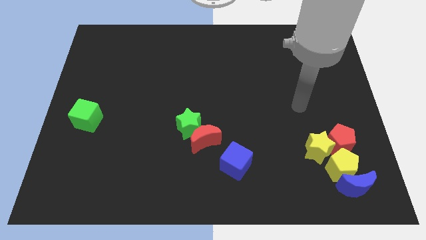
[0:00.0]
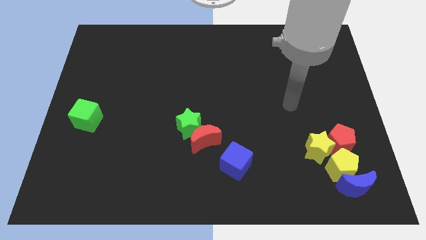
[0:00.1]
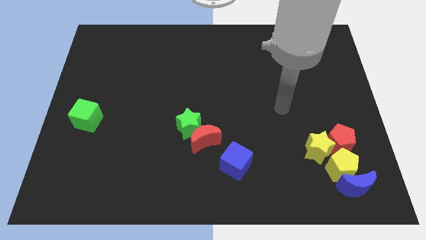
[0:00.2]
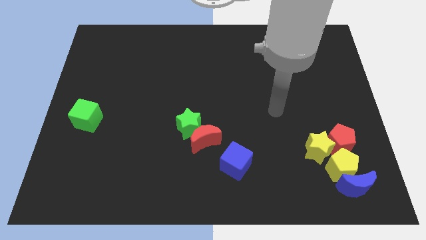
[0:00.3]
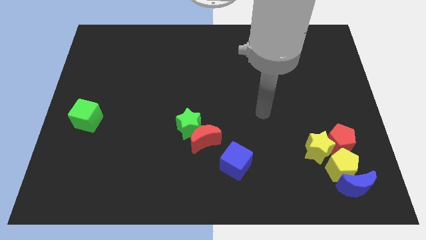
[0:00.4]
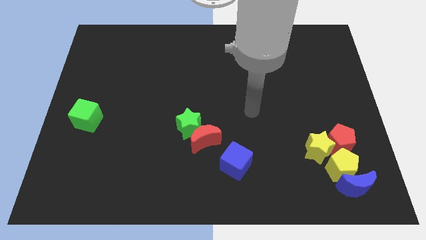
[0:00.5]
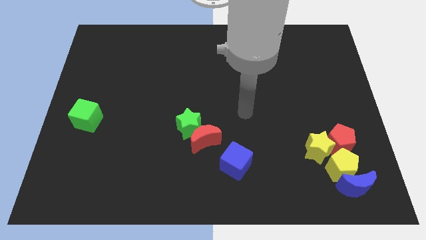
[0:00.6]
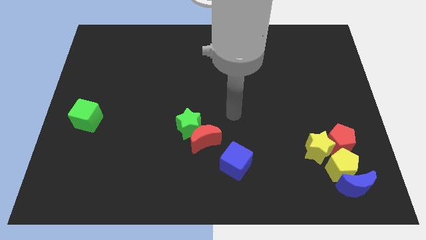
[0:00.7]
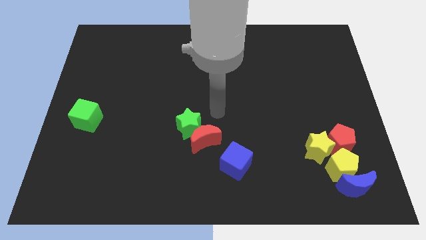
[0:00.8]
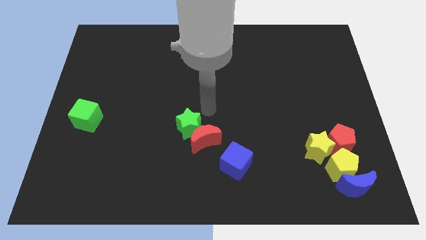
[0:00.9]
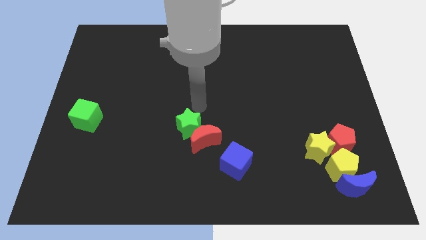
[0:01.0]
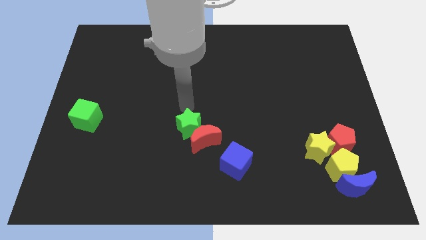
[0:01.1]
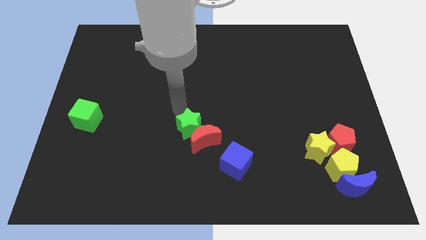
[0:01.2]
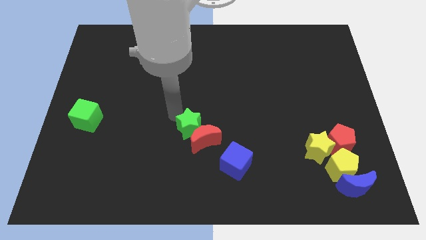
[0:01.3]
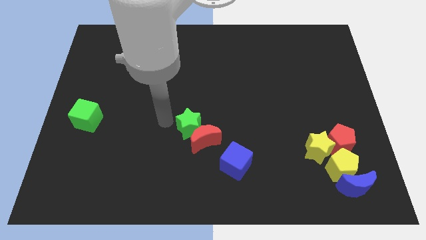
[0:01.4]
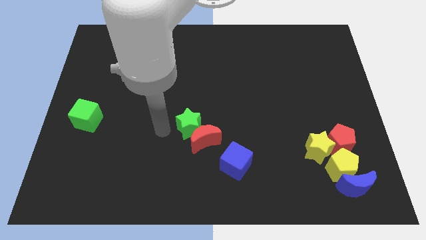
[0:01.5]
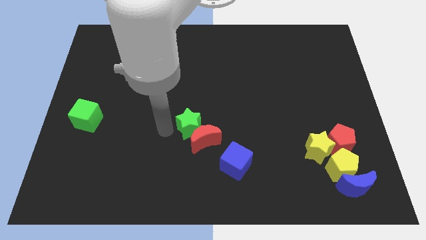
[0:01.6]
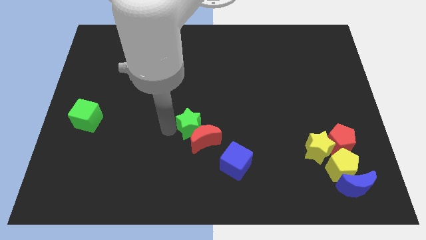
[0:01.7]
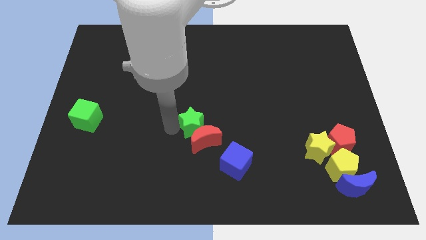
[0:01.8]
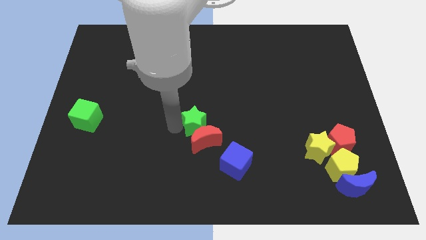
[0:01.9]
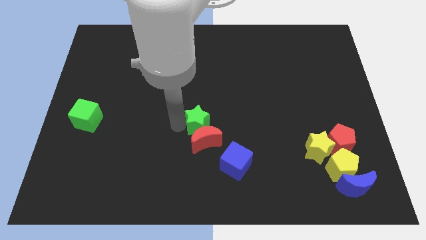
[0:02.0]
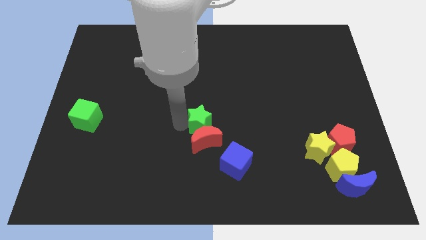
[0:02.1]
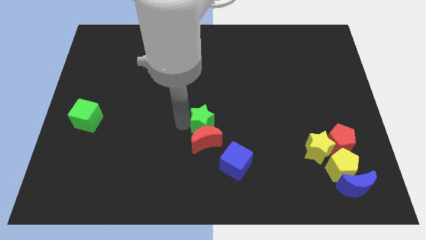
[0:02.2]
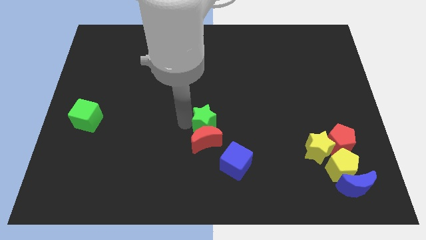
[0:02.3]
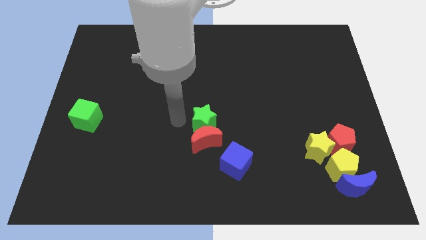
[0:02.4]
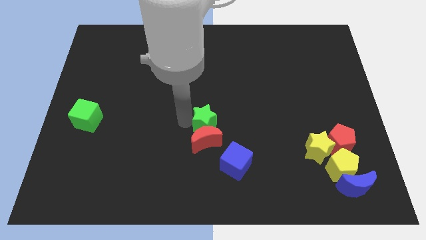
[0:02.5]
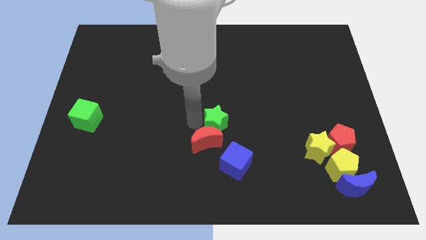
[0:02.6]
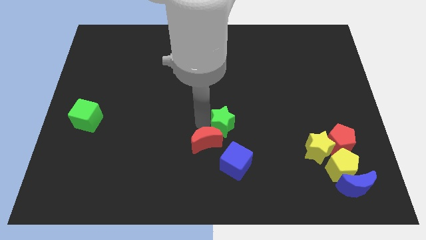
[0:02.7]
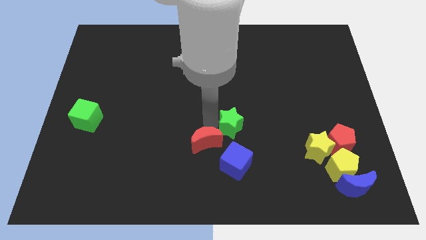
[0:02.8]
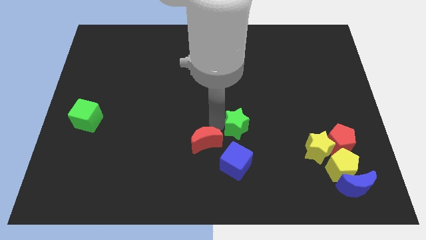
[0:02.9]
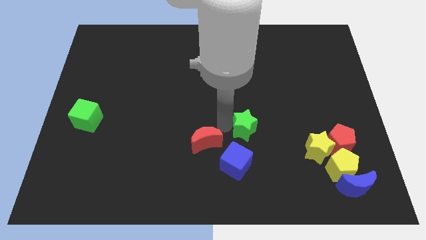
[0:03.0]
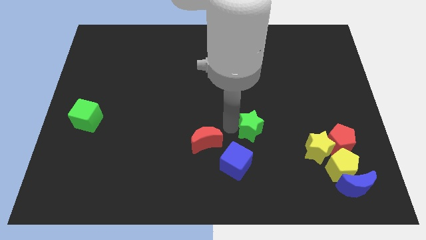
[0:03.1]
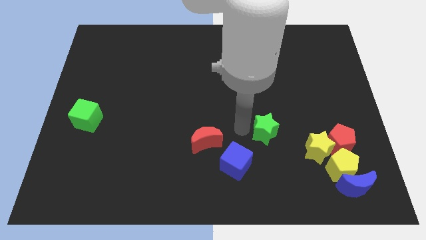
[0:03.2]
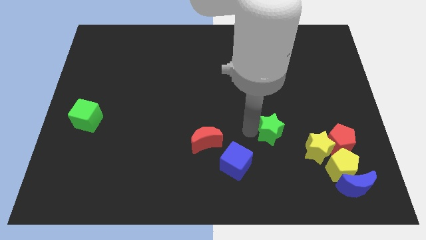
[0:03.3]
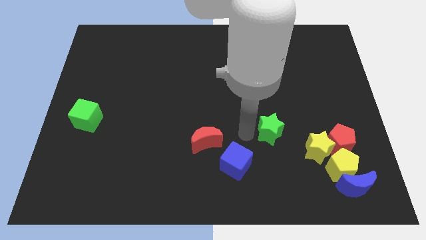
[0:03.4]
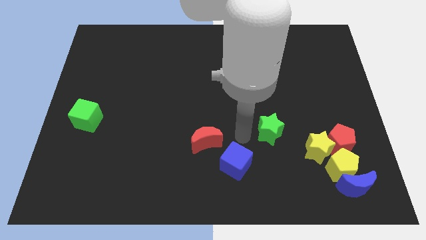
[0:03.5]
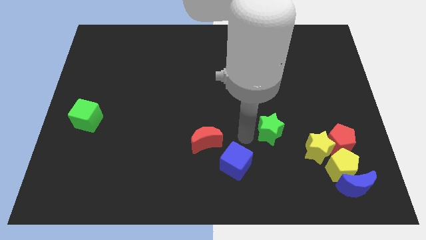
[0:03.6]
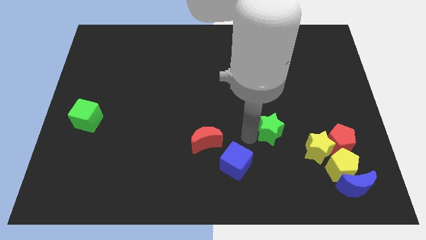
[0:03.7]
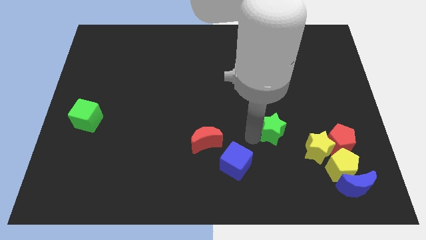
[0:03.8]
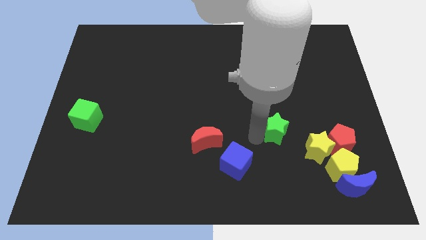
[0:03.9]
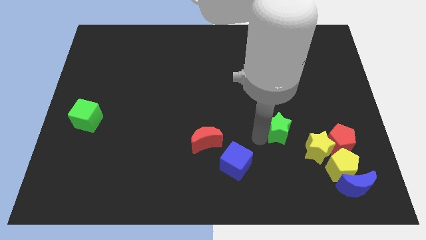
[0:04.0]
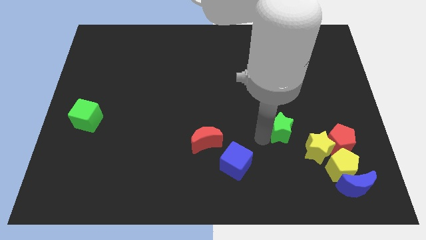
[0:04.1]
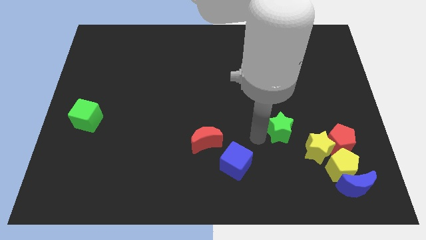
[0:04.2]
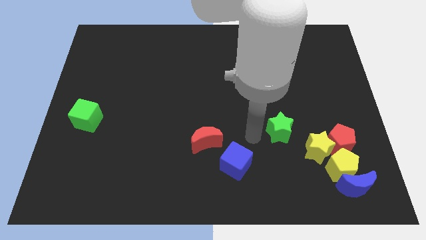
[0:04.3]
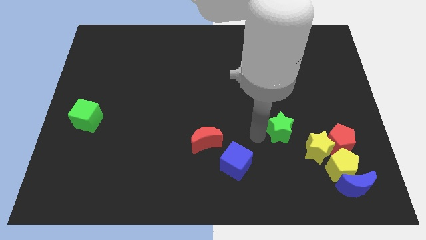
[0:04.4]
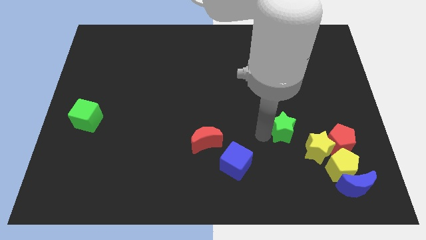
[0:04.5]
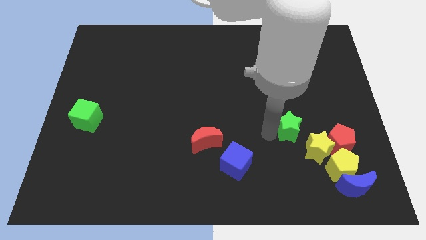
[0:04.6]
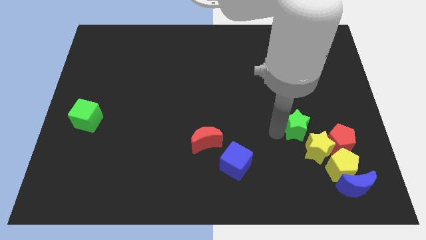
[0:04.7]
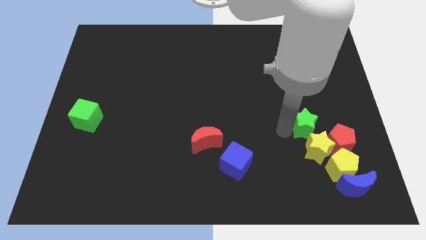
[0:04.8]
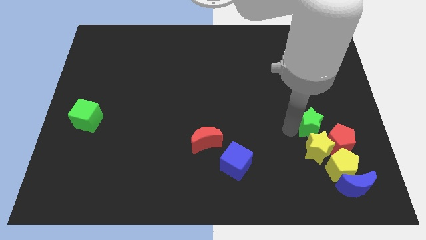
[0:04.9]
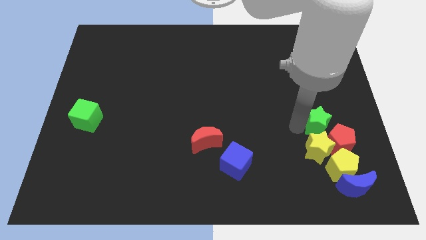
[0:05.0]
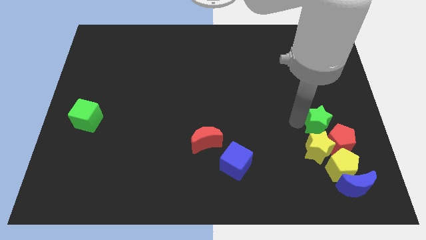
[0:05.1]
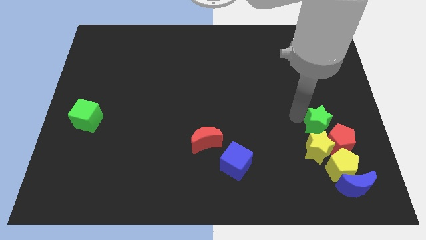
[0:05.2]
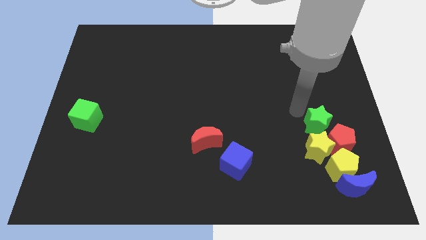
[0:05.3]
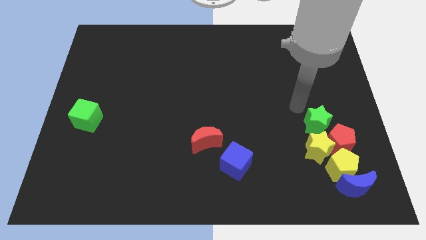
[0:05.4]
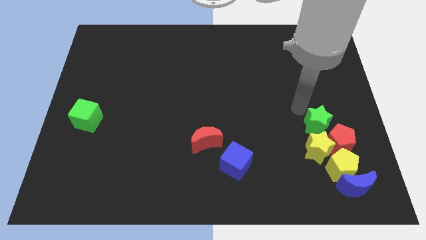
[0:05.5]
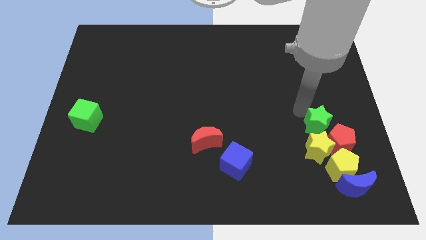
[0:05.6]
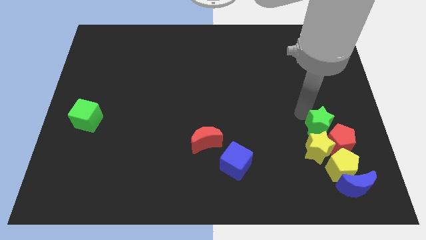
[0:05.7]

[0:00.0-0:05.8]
put the green star towards the red pentagon

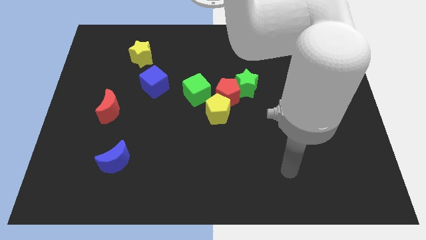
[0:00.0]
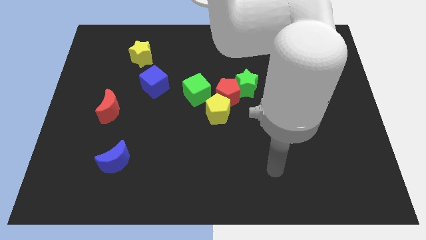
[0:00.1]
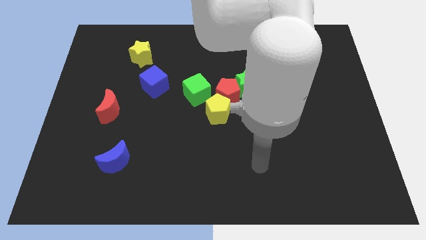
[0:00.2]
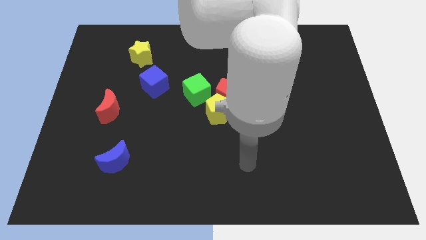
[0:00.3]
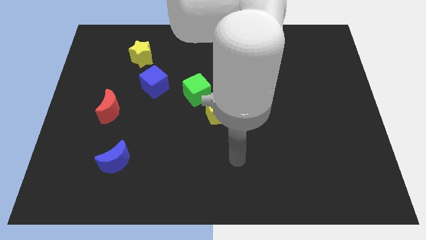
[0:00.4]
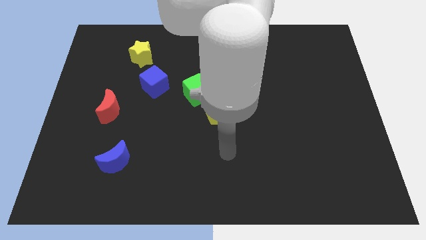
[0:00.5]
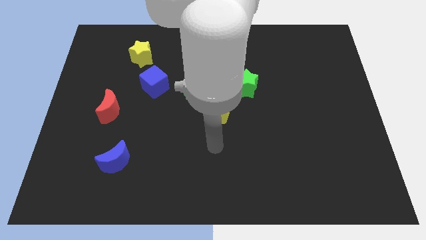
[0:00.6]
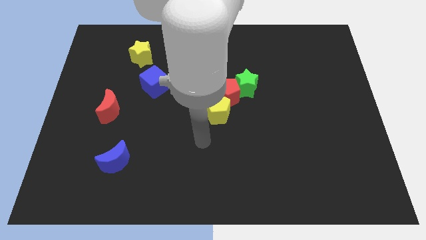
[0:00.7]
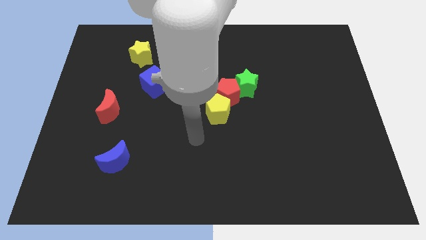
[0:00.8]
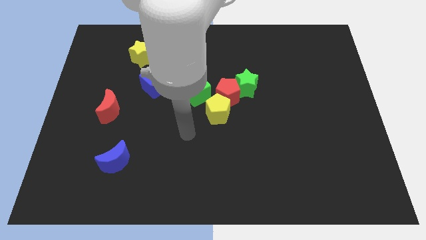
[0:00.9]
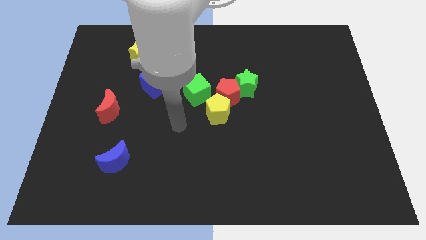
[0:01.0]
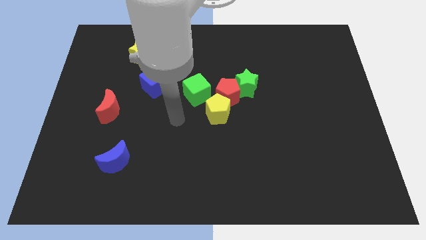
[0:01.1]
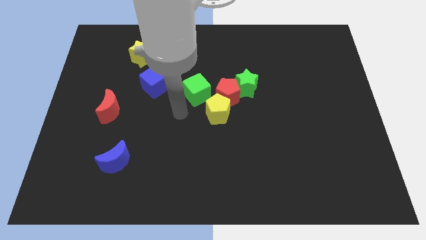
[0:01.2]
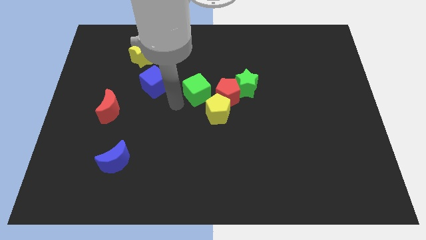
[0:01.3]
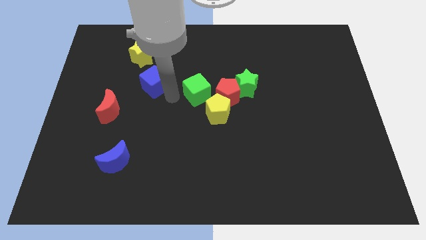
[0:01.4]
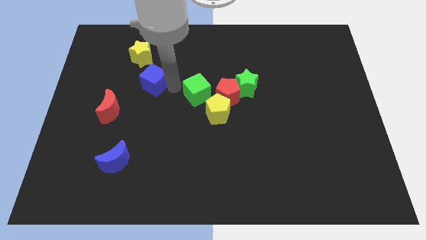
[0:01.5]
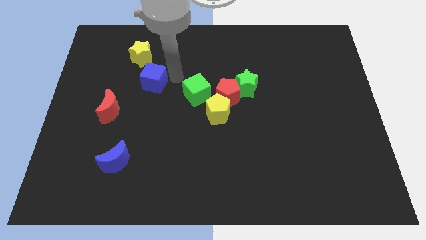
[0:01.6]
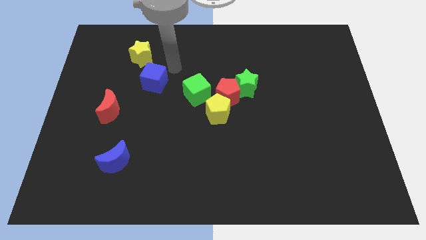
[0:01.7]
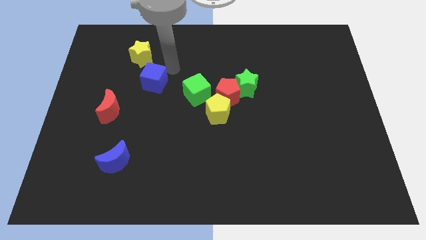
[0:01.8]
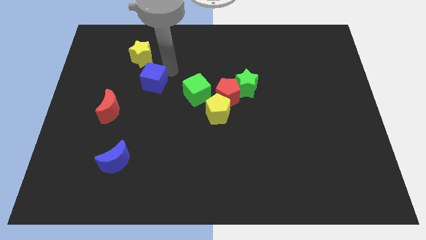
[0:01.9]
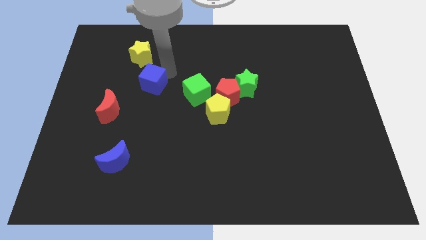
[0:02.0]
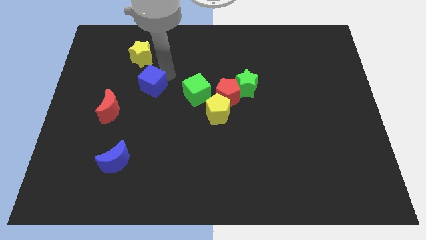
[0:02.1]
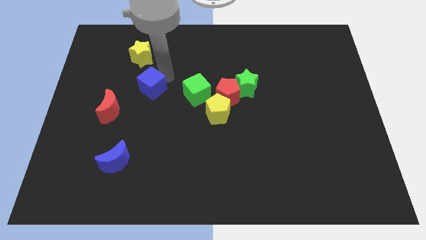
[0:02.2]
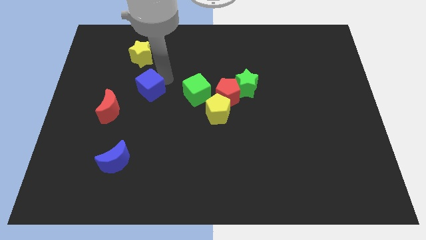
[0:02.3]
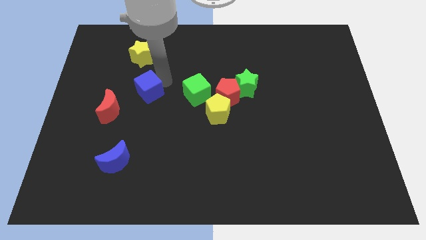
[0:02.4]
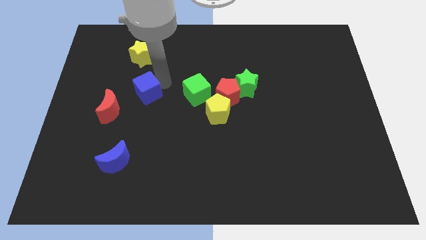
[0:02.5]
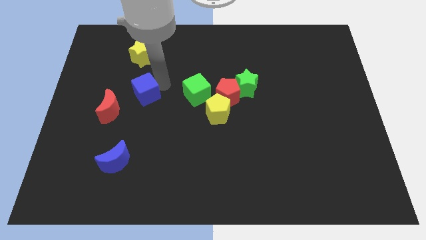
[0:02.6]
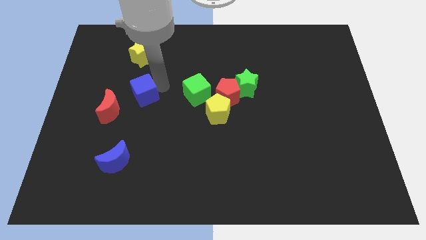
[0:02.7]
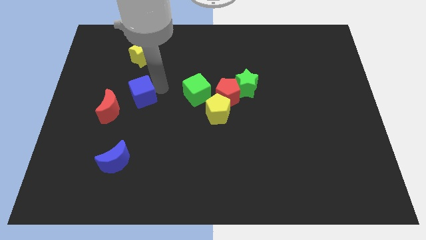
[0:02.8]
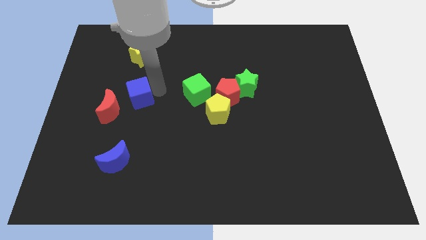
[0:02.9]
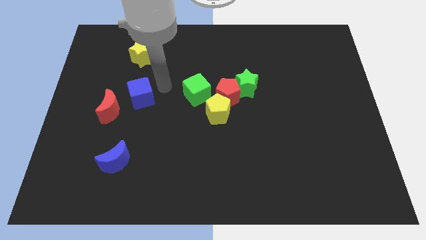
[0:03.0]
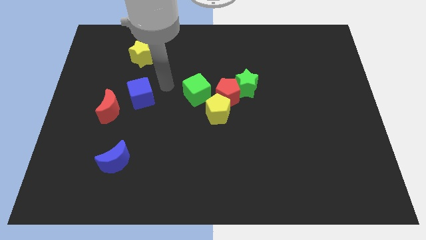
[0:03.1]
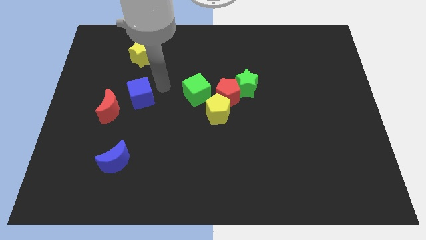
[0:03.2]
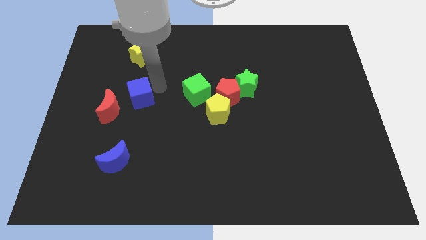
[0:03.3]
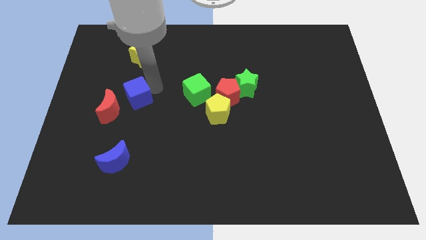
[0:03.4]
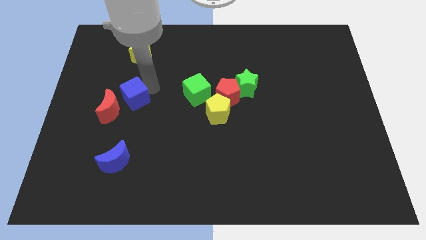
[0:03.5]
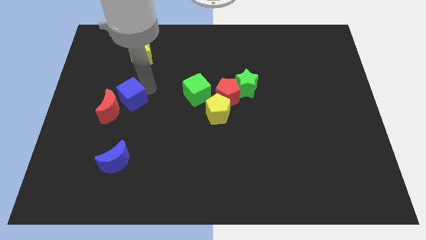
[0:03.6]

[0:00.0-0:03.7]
put the blue cube towards the red moon
